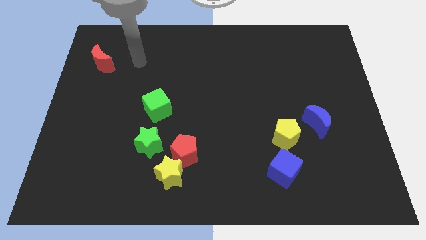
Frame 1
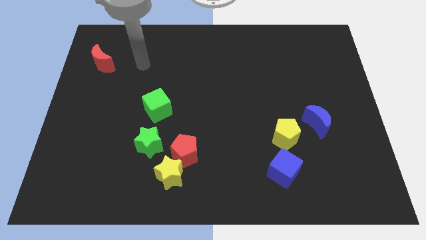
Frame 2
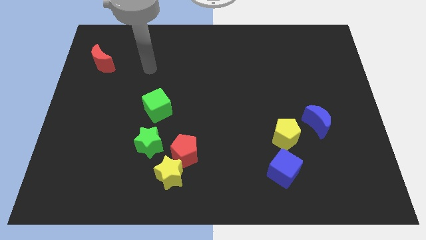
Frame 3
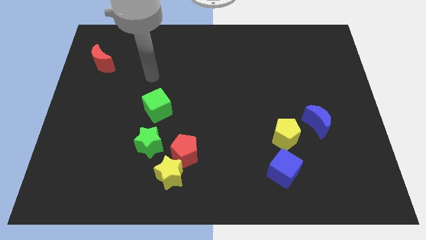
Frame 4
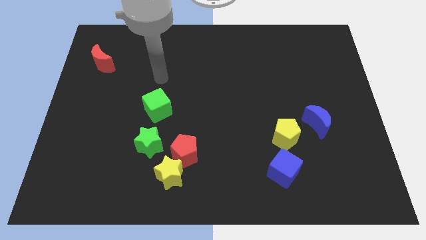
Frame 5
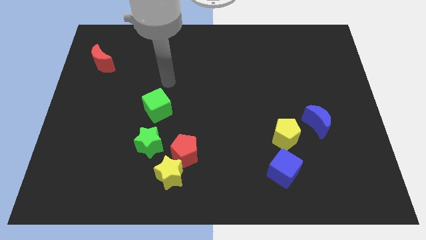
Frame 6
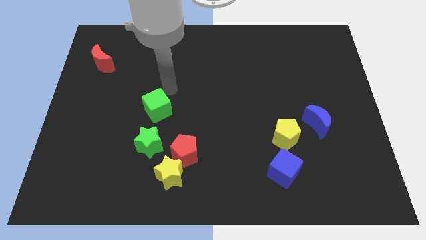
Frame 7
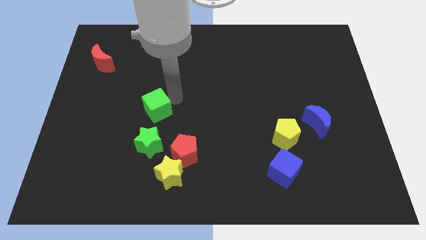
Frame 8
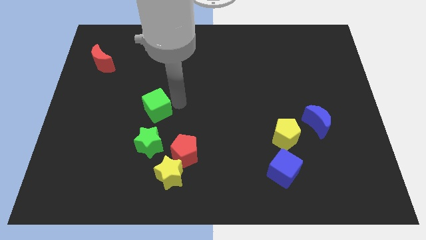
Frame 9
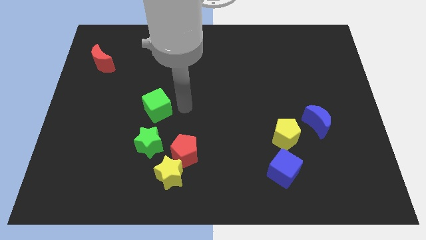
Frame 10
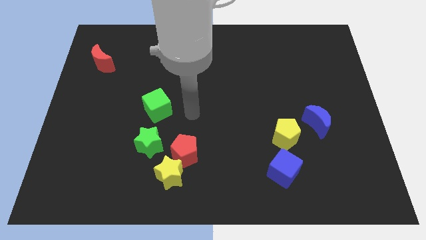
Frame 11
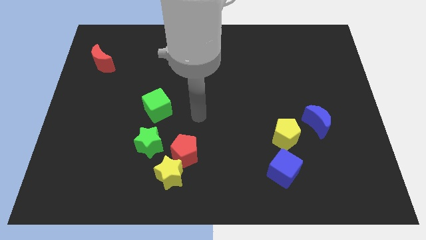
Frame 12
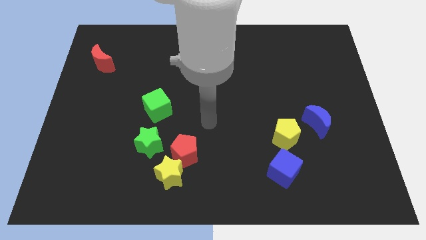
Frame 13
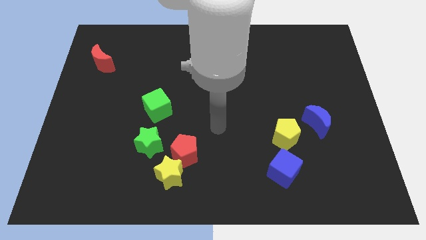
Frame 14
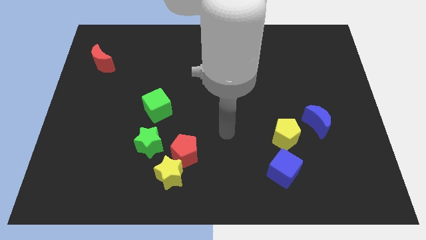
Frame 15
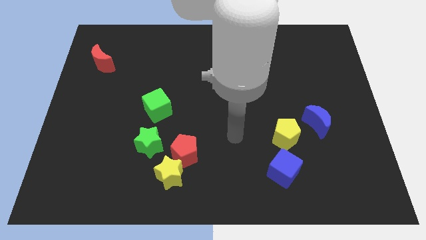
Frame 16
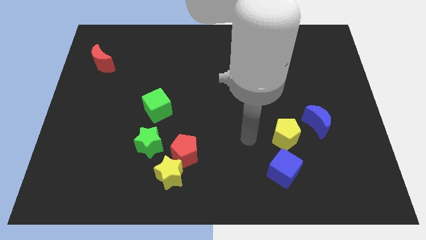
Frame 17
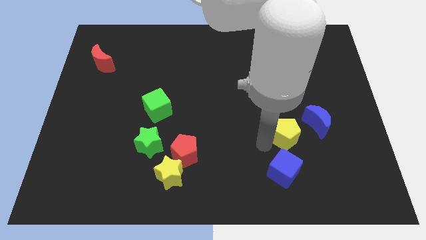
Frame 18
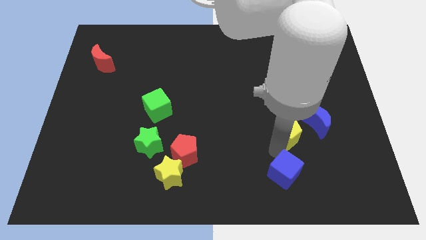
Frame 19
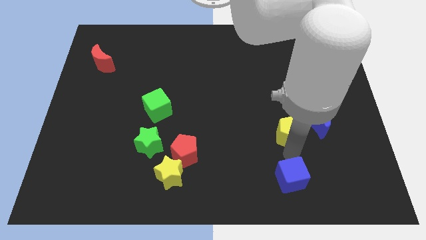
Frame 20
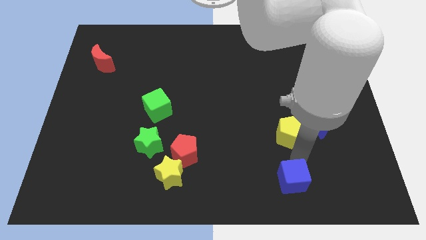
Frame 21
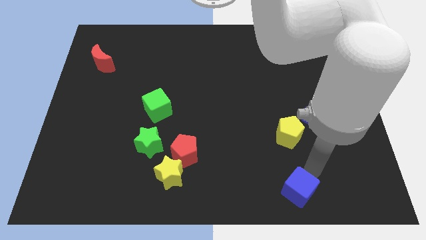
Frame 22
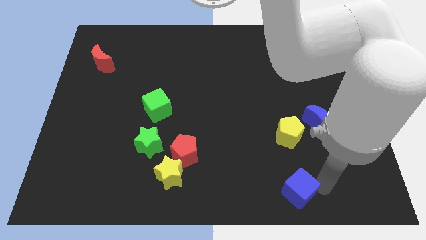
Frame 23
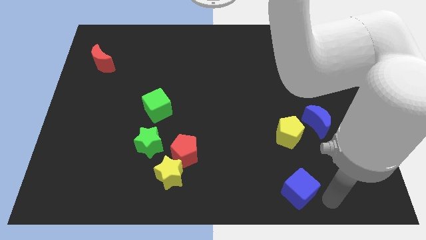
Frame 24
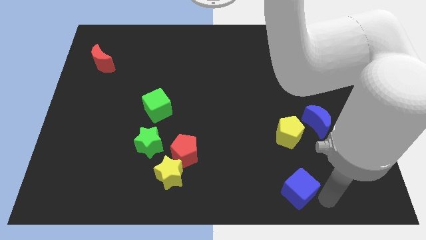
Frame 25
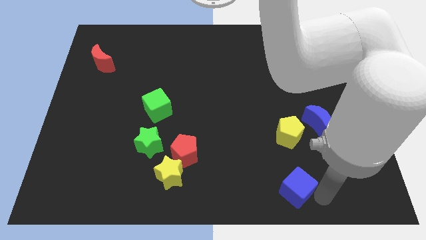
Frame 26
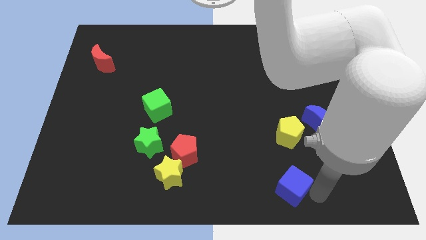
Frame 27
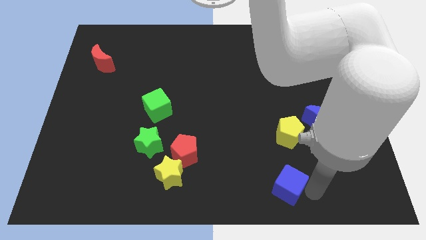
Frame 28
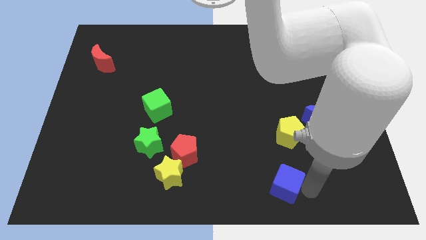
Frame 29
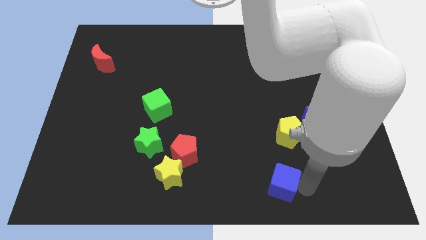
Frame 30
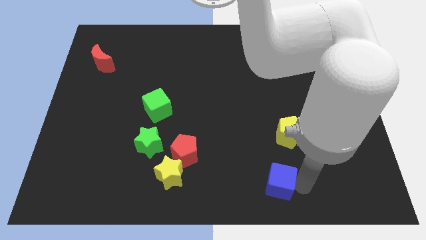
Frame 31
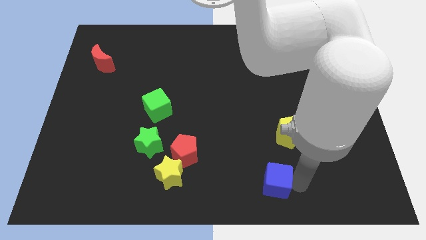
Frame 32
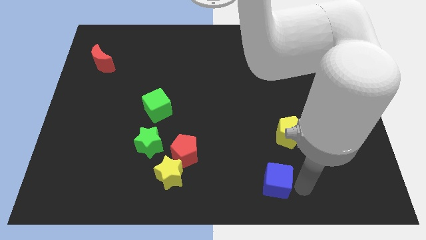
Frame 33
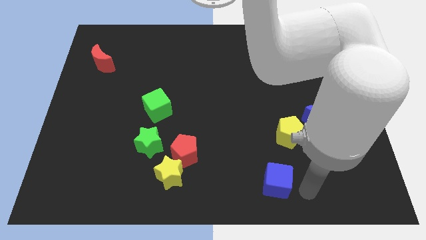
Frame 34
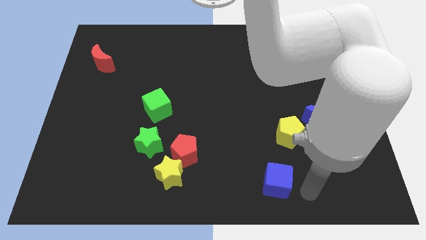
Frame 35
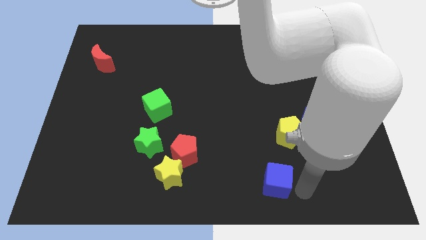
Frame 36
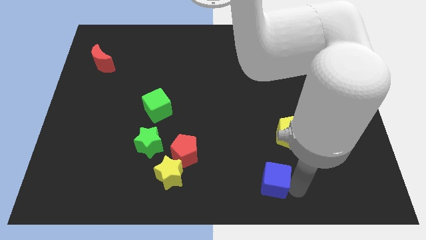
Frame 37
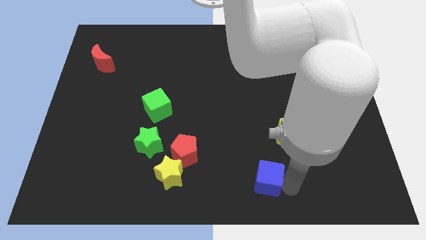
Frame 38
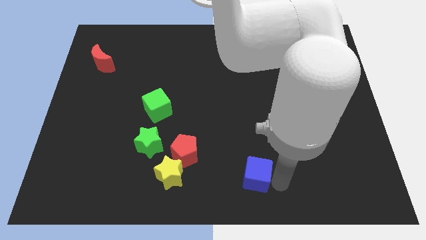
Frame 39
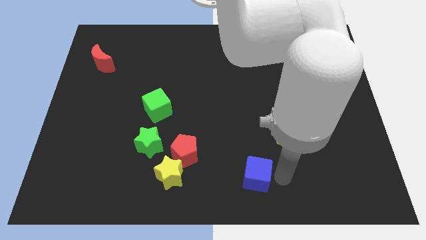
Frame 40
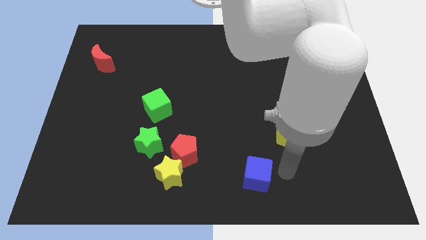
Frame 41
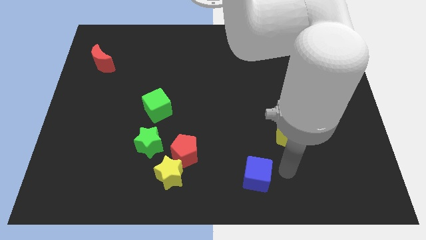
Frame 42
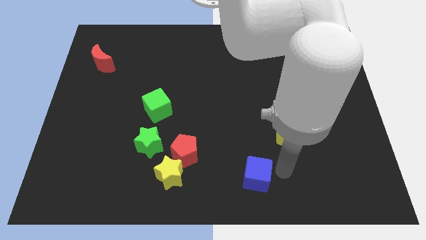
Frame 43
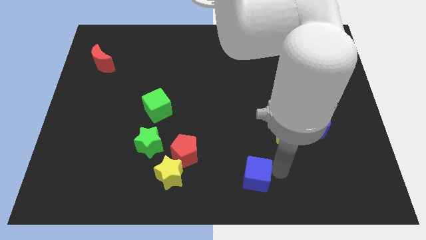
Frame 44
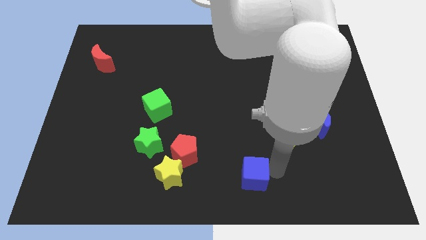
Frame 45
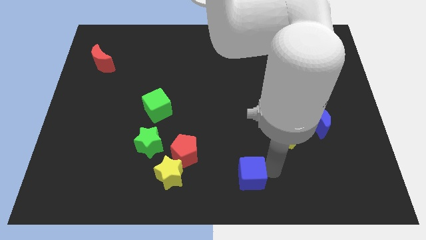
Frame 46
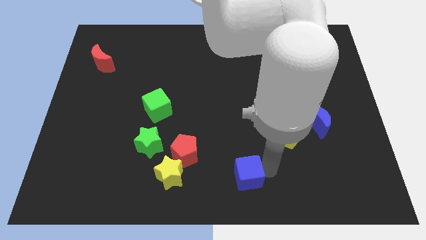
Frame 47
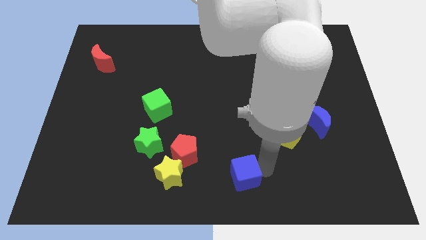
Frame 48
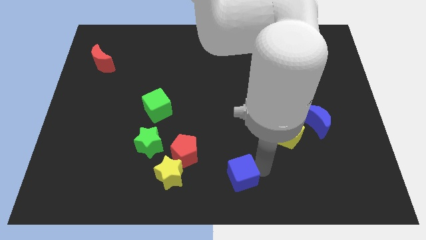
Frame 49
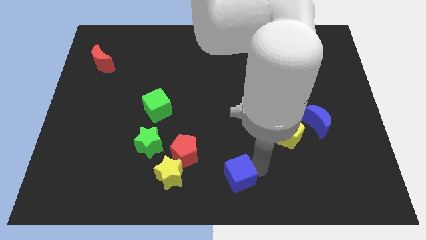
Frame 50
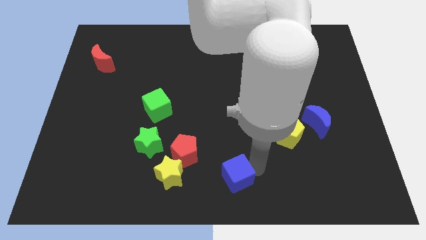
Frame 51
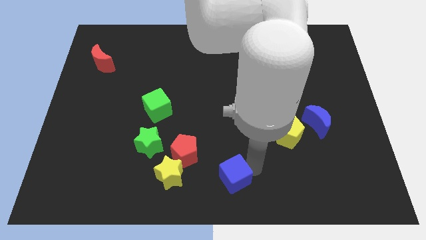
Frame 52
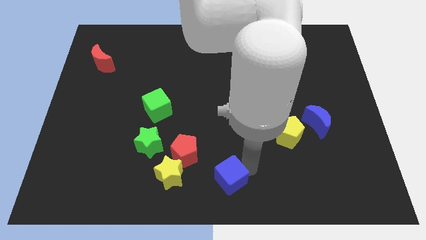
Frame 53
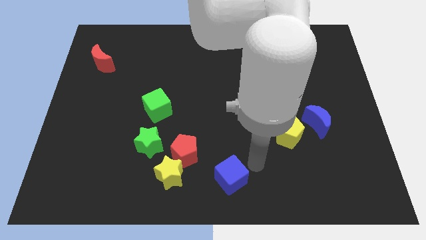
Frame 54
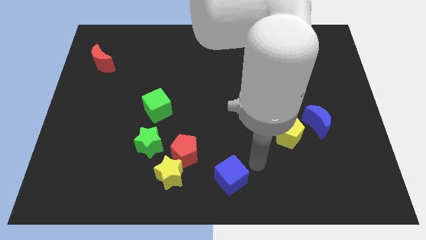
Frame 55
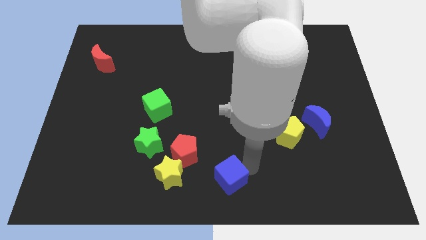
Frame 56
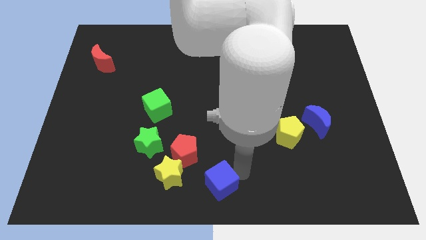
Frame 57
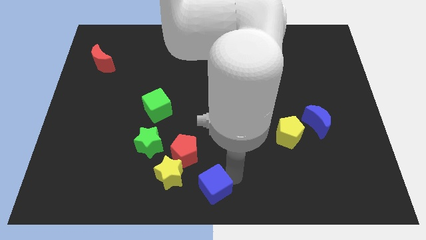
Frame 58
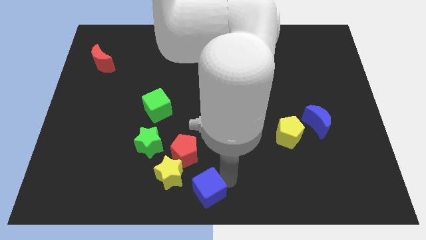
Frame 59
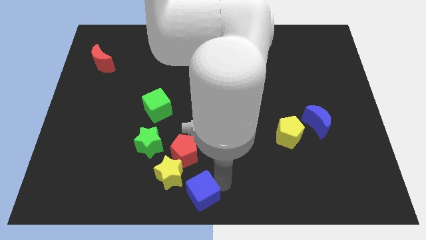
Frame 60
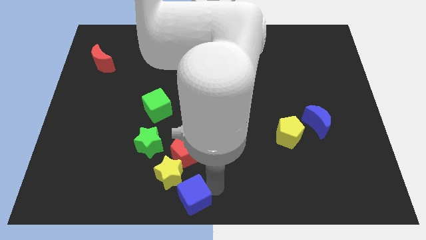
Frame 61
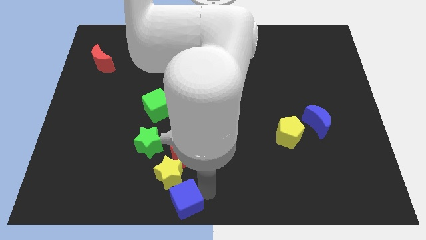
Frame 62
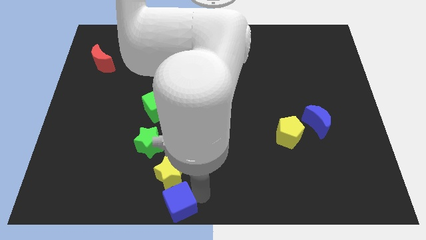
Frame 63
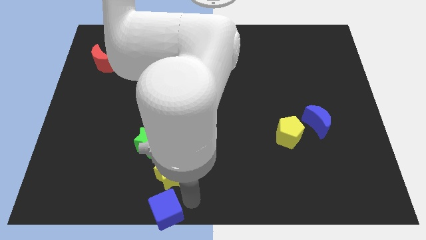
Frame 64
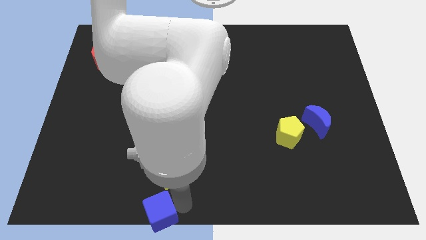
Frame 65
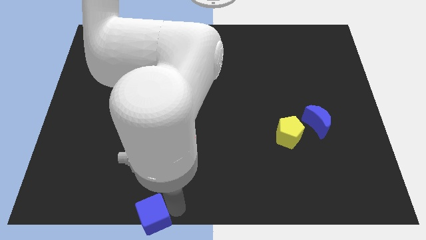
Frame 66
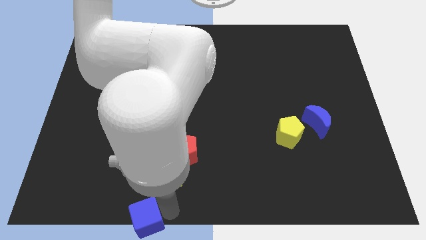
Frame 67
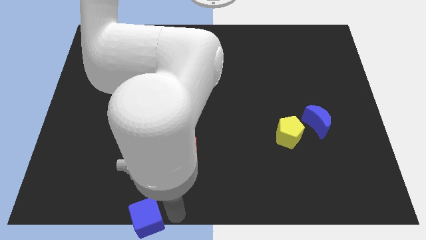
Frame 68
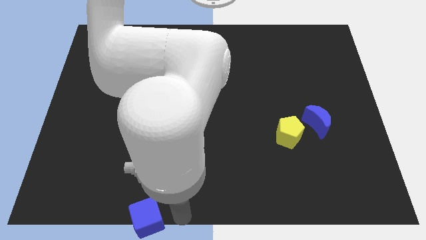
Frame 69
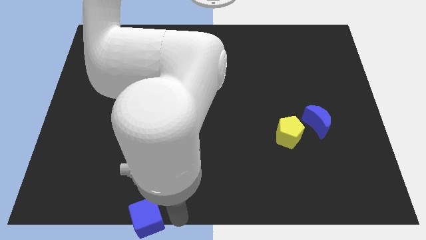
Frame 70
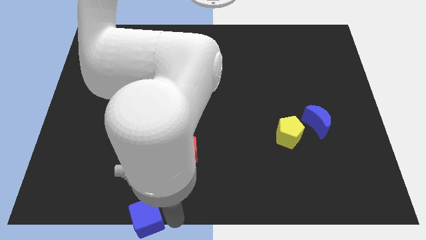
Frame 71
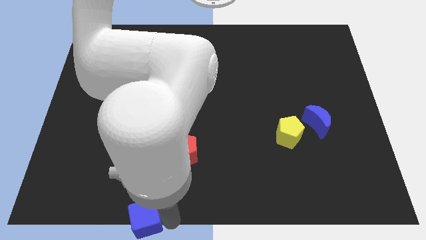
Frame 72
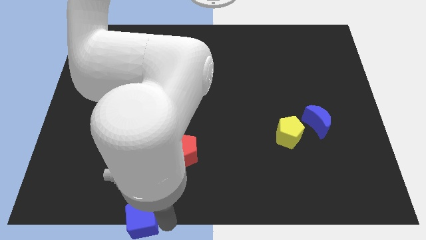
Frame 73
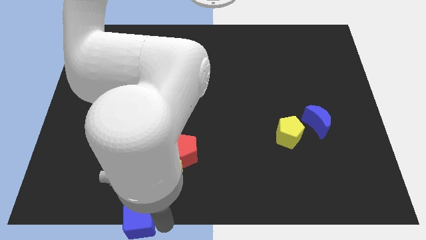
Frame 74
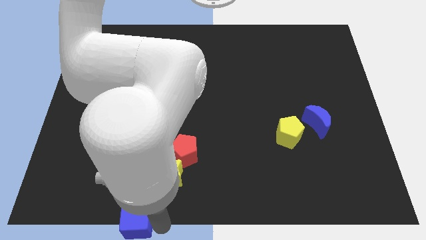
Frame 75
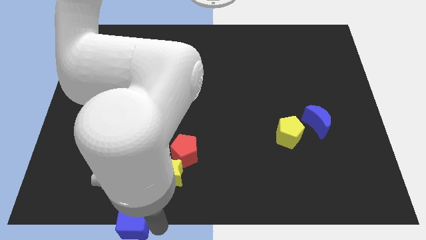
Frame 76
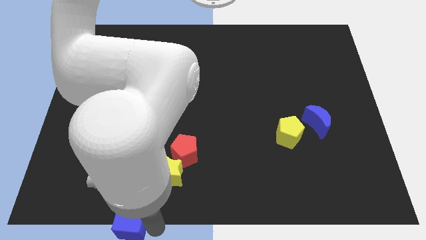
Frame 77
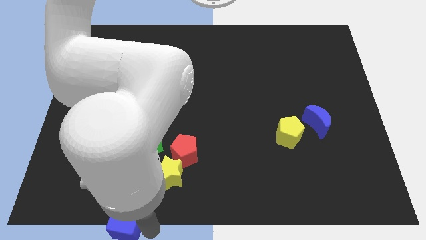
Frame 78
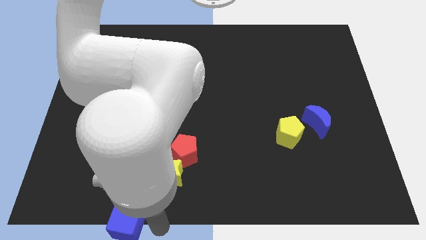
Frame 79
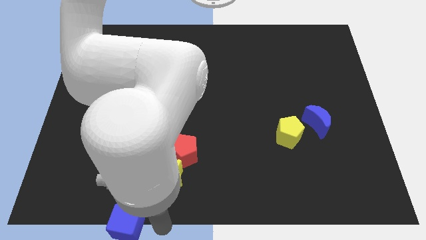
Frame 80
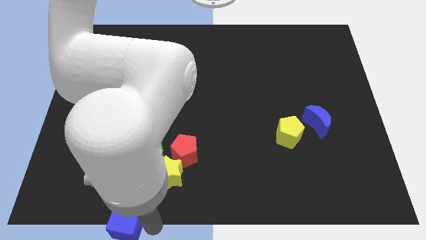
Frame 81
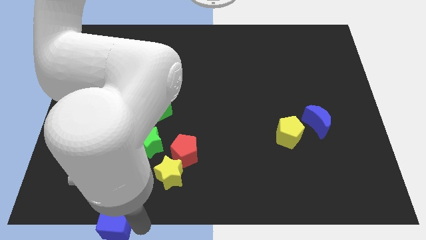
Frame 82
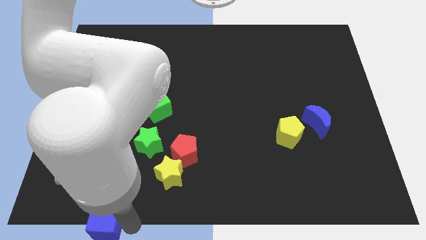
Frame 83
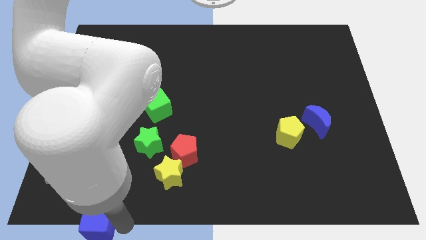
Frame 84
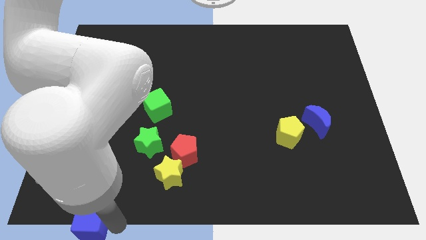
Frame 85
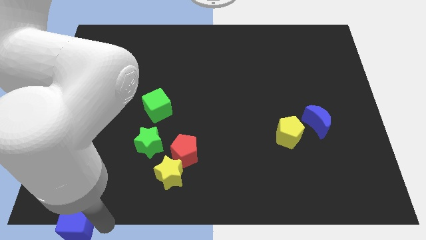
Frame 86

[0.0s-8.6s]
move the blue cube to the lower left corner
